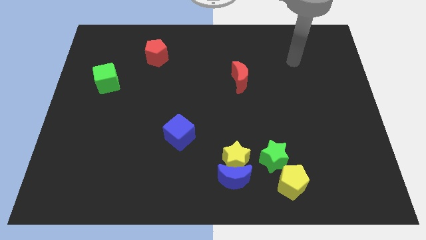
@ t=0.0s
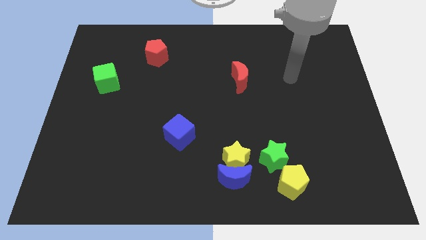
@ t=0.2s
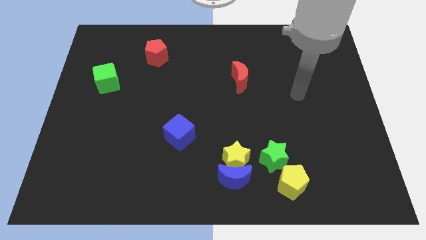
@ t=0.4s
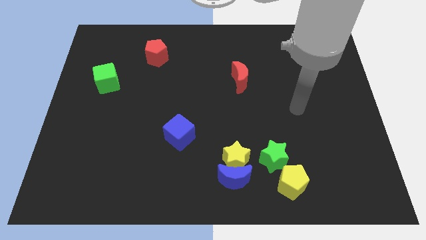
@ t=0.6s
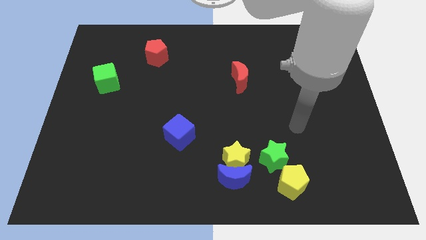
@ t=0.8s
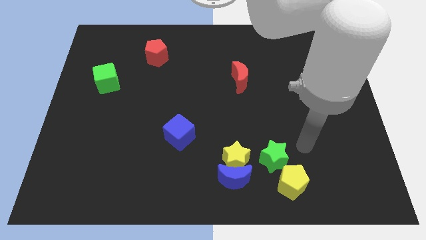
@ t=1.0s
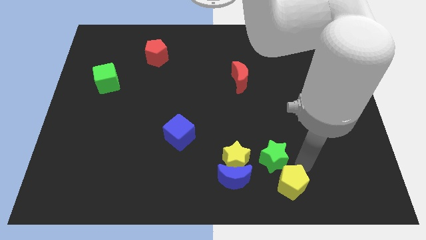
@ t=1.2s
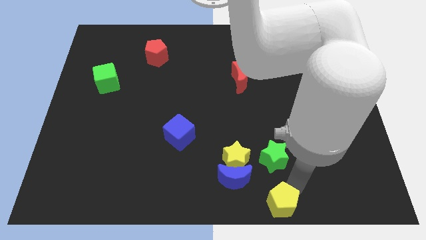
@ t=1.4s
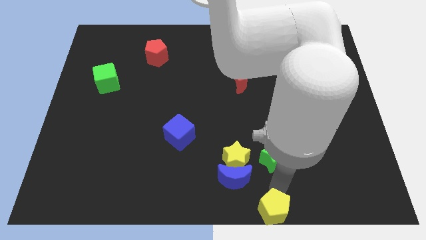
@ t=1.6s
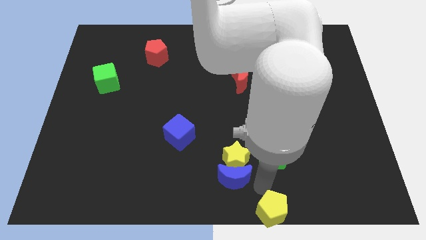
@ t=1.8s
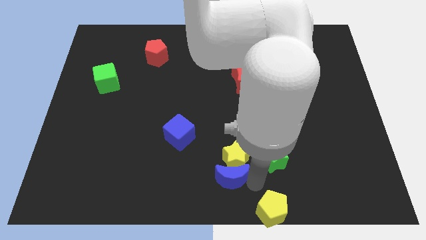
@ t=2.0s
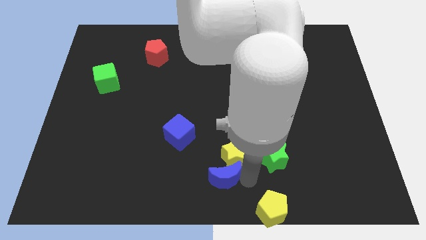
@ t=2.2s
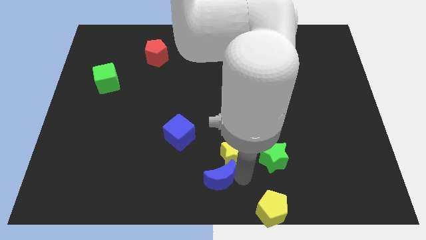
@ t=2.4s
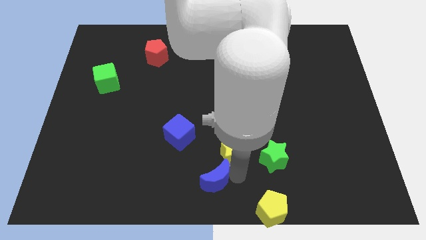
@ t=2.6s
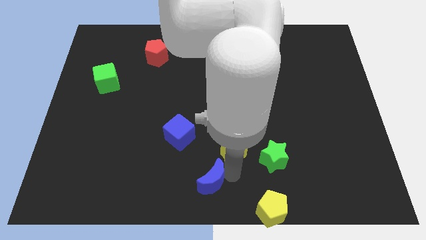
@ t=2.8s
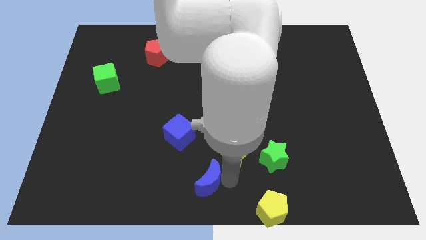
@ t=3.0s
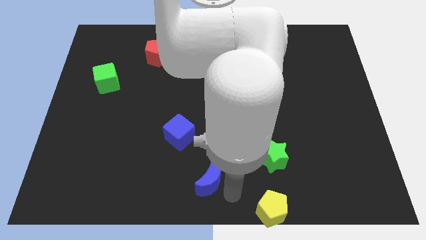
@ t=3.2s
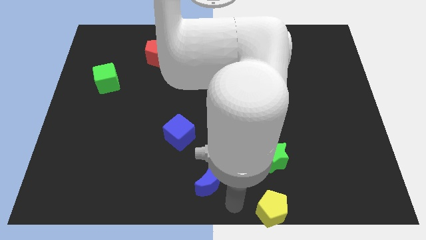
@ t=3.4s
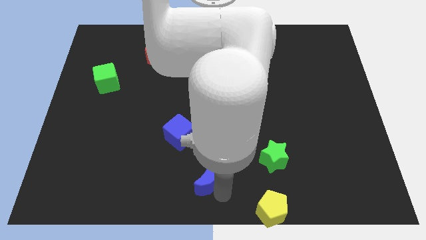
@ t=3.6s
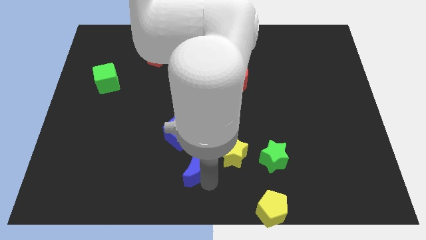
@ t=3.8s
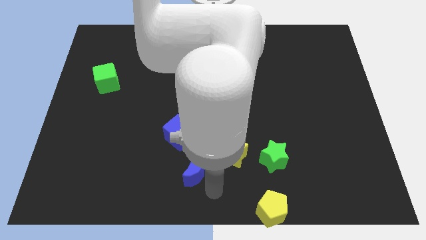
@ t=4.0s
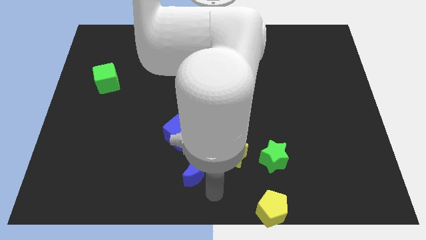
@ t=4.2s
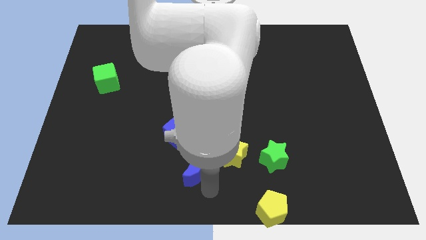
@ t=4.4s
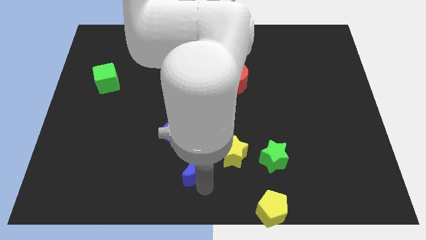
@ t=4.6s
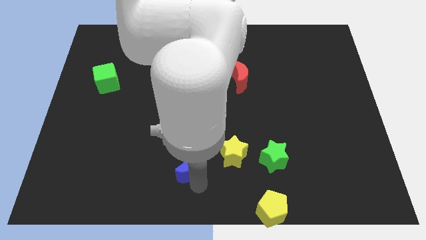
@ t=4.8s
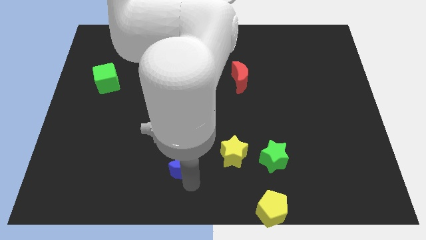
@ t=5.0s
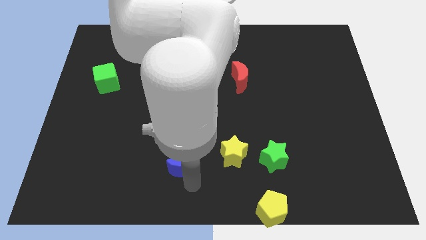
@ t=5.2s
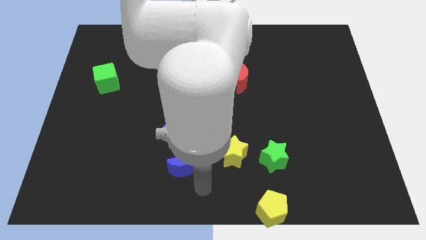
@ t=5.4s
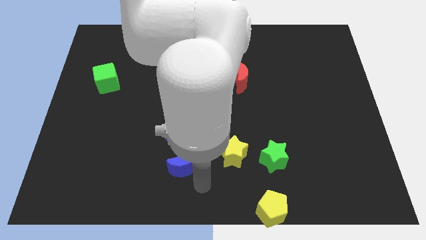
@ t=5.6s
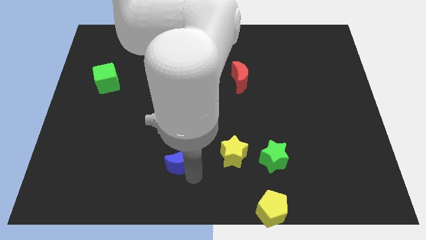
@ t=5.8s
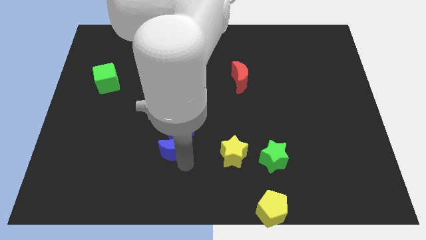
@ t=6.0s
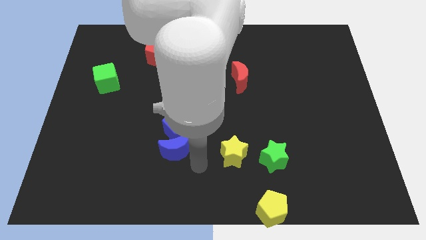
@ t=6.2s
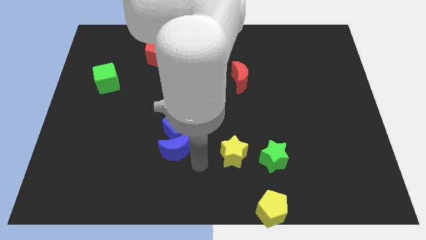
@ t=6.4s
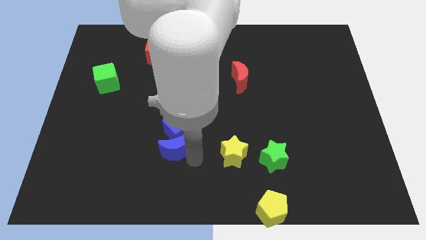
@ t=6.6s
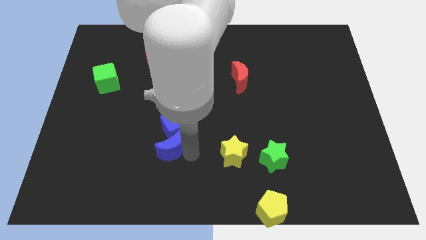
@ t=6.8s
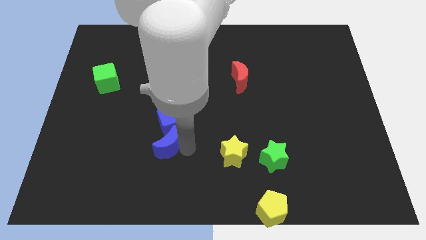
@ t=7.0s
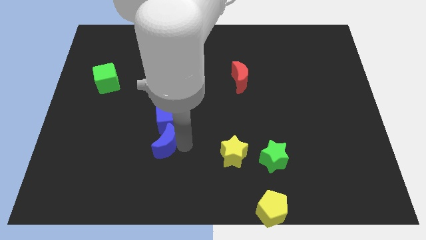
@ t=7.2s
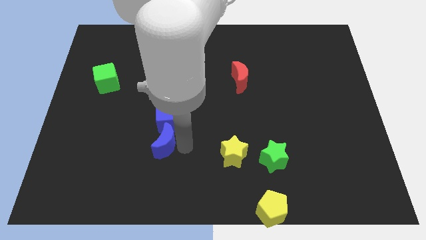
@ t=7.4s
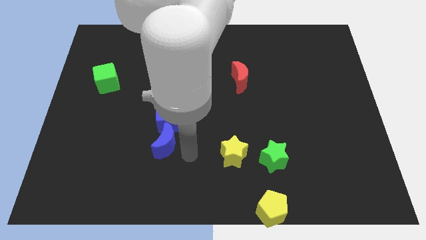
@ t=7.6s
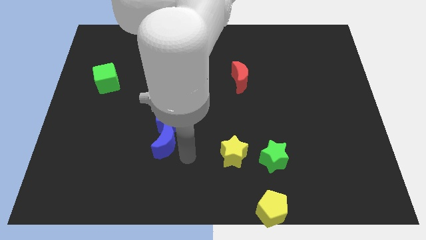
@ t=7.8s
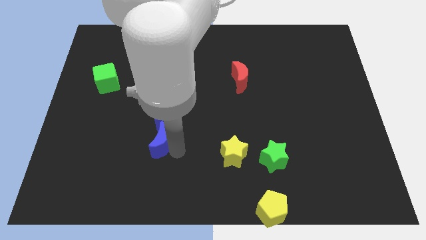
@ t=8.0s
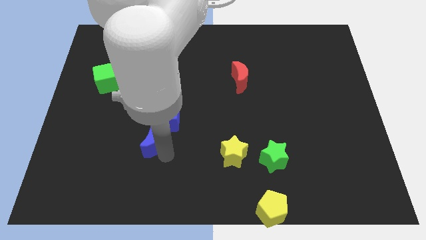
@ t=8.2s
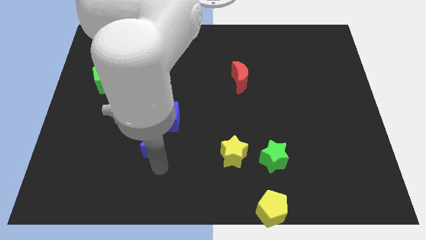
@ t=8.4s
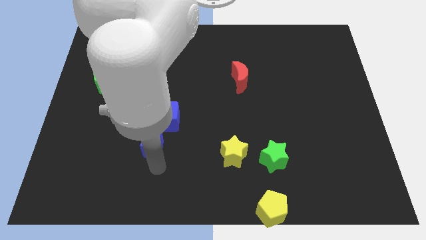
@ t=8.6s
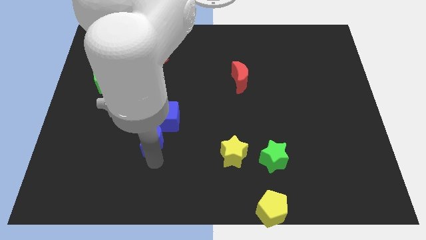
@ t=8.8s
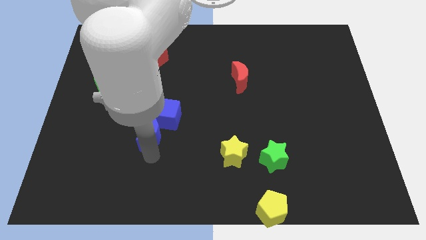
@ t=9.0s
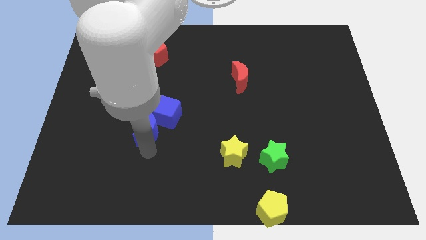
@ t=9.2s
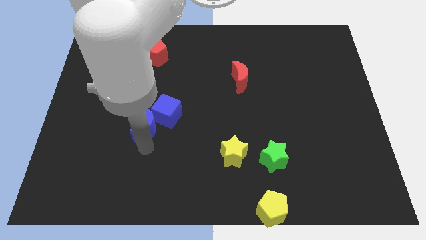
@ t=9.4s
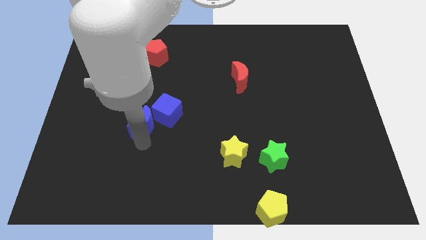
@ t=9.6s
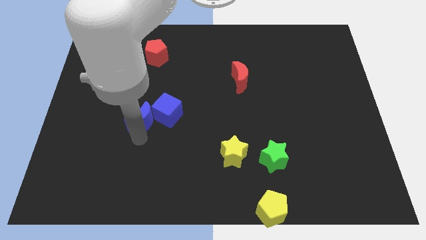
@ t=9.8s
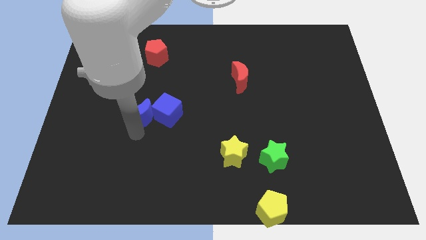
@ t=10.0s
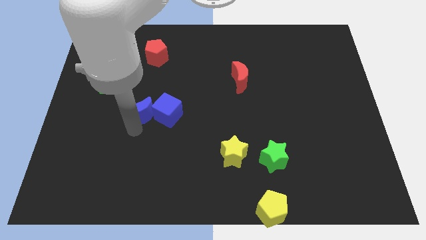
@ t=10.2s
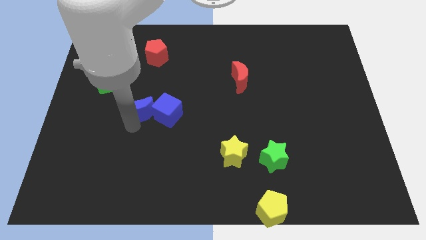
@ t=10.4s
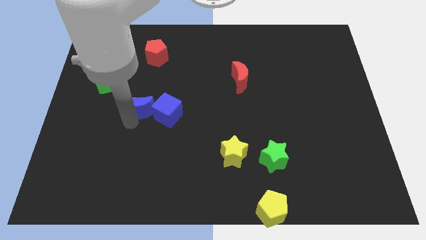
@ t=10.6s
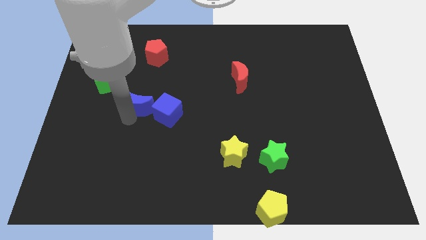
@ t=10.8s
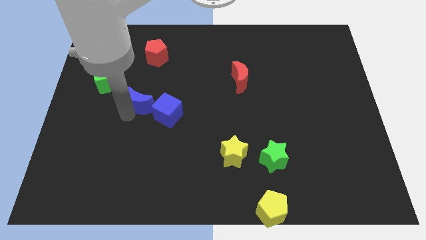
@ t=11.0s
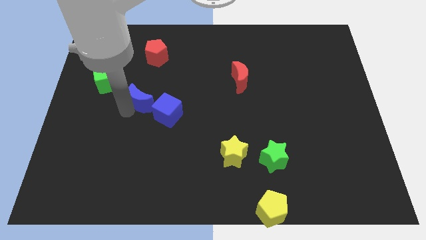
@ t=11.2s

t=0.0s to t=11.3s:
push the blue moon to the bottom of the red pentagon

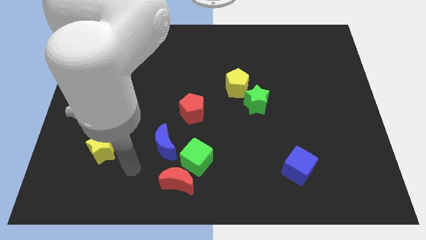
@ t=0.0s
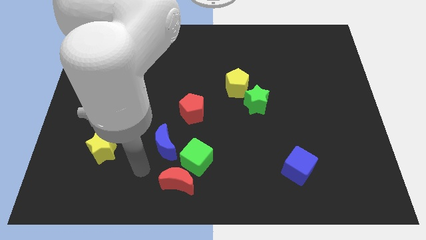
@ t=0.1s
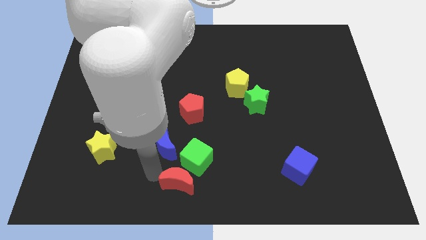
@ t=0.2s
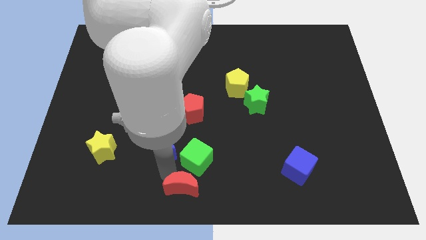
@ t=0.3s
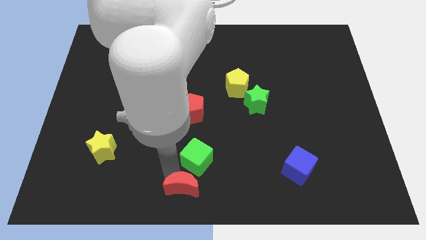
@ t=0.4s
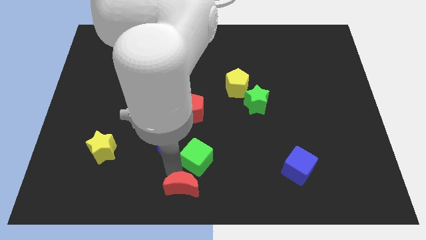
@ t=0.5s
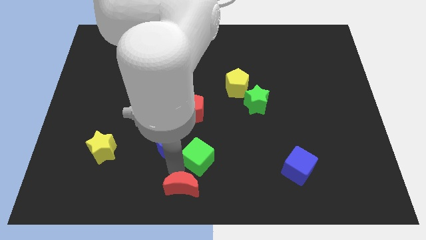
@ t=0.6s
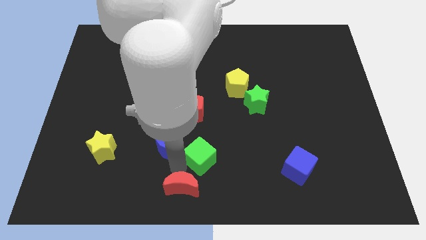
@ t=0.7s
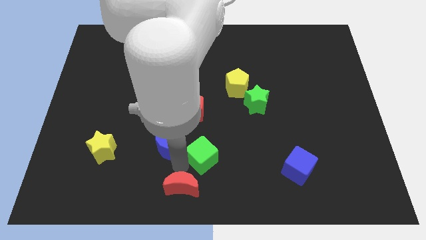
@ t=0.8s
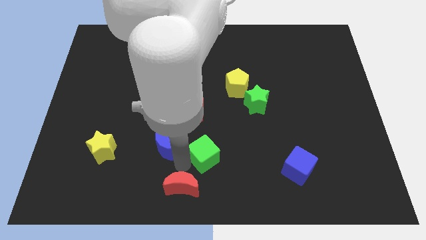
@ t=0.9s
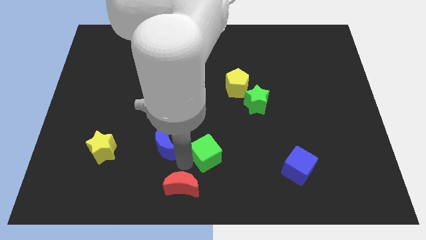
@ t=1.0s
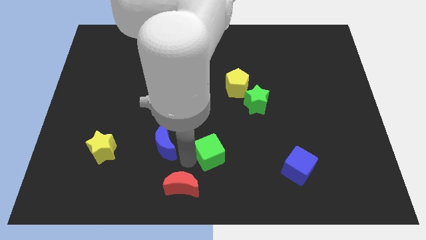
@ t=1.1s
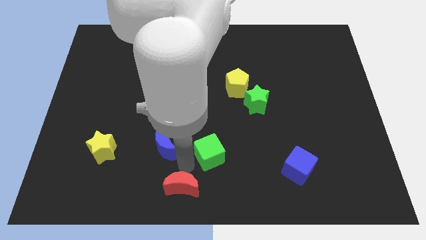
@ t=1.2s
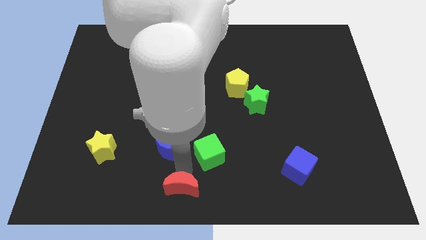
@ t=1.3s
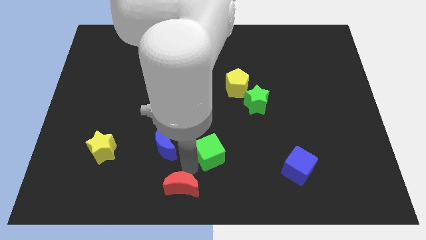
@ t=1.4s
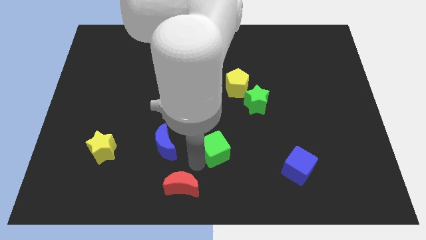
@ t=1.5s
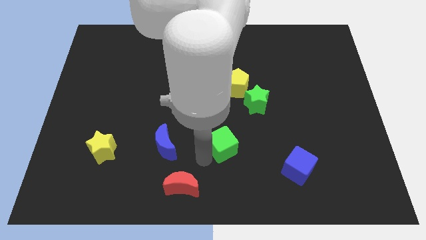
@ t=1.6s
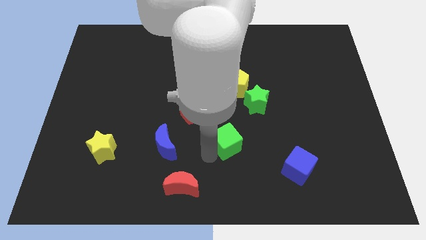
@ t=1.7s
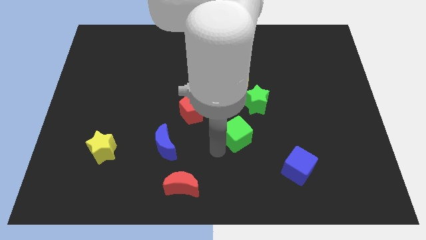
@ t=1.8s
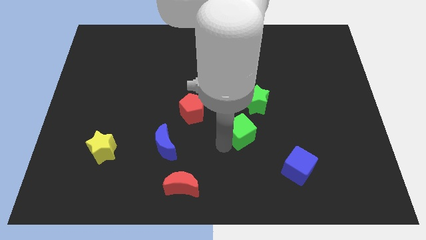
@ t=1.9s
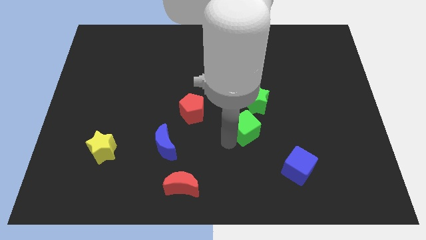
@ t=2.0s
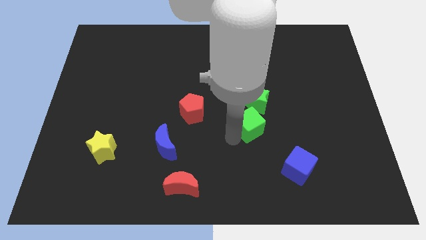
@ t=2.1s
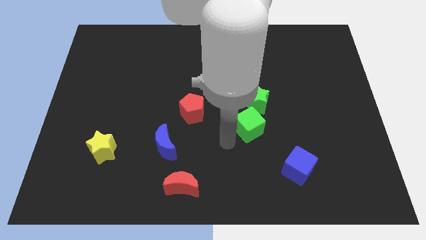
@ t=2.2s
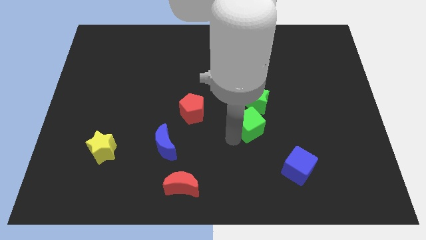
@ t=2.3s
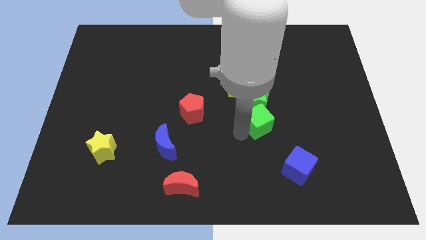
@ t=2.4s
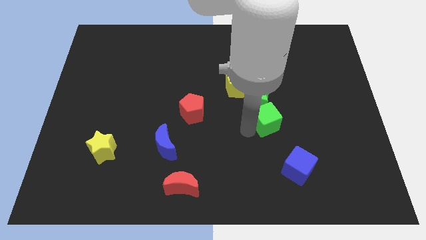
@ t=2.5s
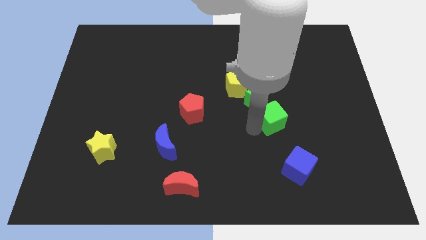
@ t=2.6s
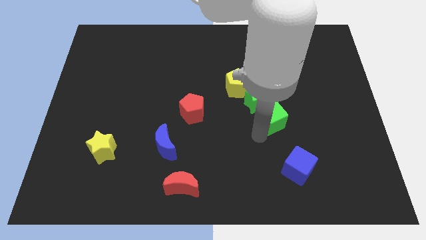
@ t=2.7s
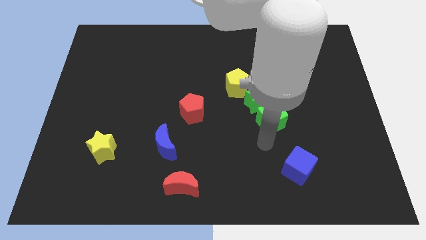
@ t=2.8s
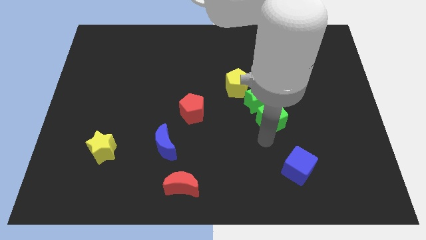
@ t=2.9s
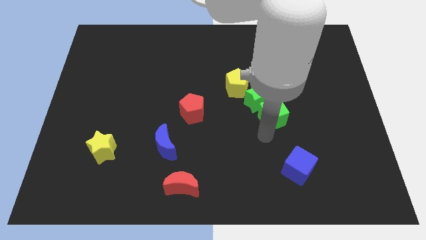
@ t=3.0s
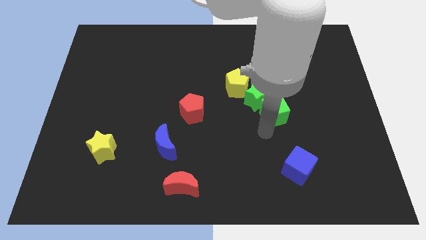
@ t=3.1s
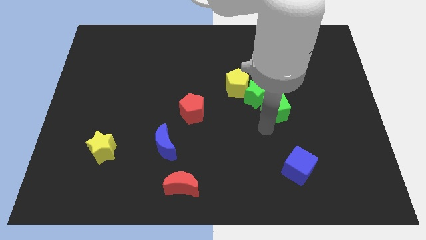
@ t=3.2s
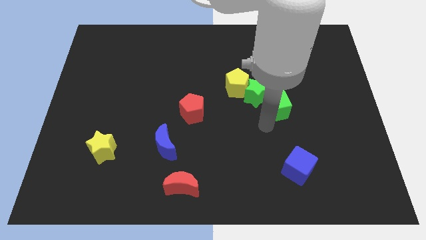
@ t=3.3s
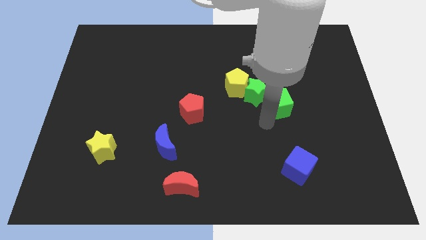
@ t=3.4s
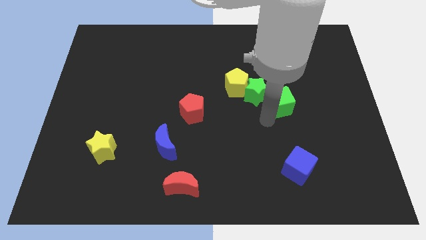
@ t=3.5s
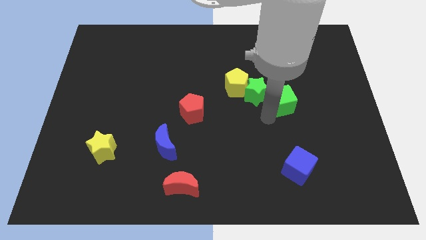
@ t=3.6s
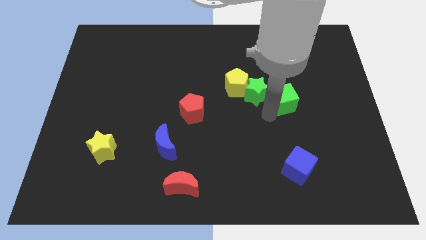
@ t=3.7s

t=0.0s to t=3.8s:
push the green cube right of the yellow pentagon
